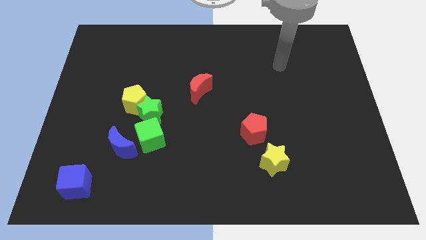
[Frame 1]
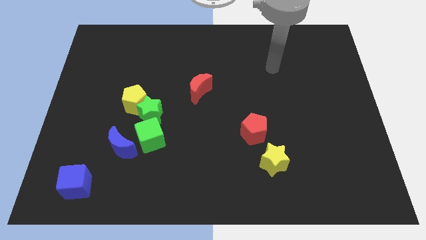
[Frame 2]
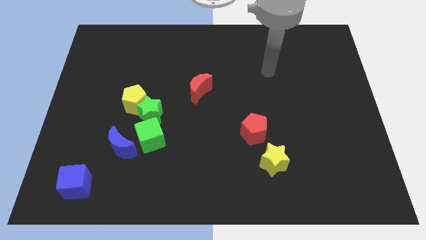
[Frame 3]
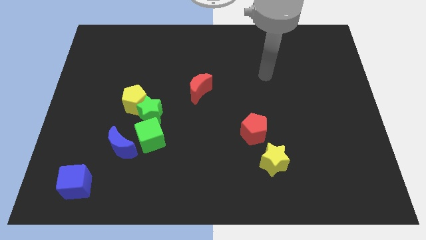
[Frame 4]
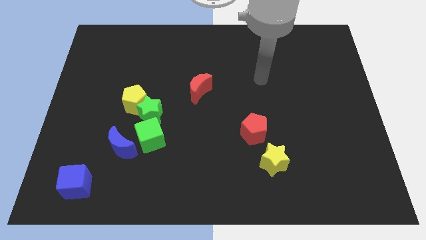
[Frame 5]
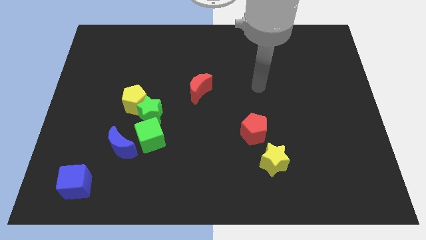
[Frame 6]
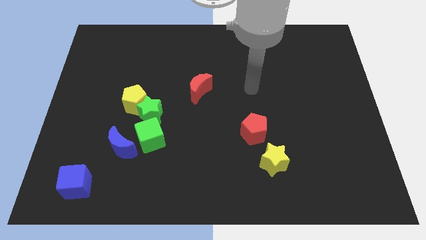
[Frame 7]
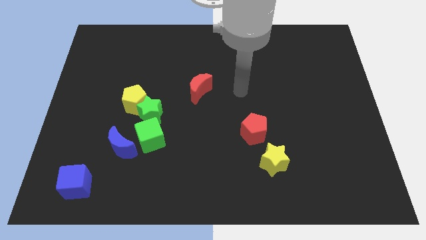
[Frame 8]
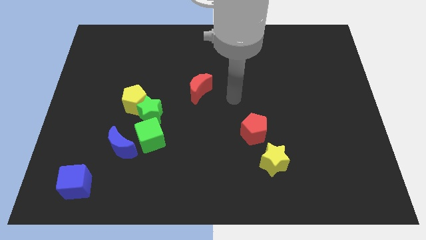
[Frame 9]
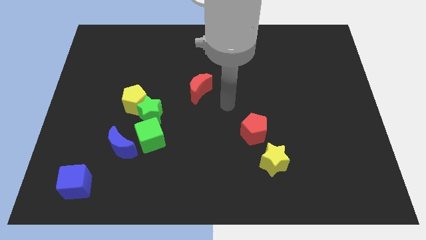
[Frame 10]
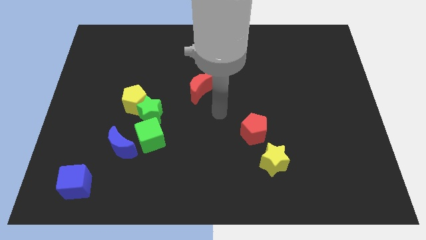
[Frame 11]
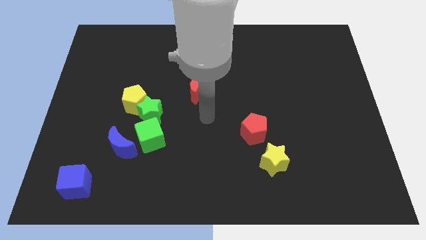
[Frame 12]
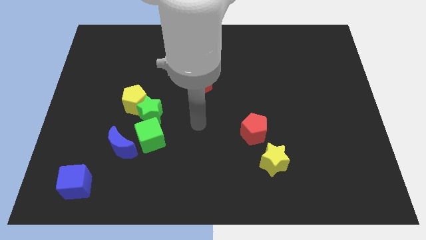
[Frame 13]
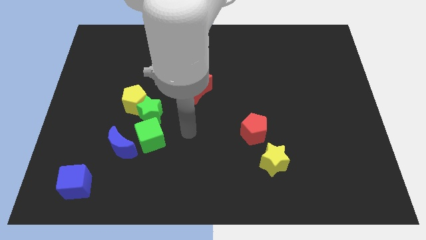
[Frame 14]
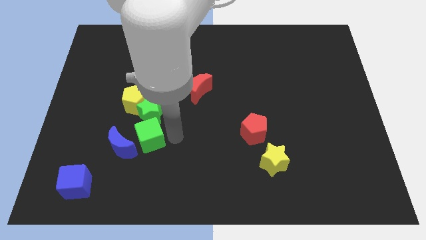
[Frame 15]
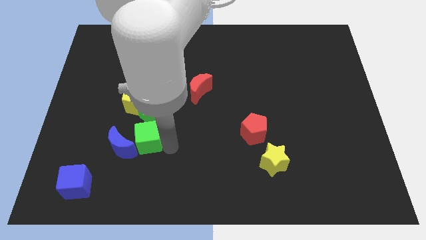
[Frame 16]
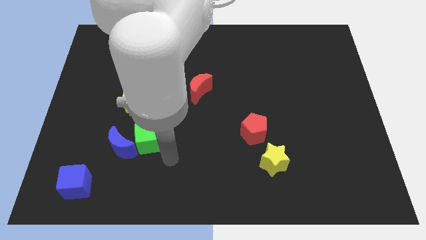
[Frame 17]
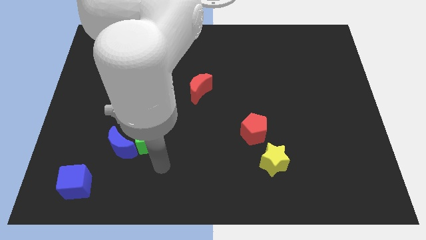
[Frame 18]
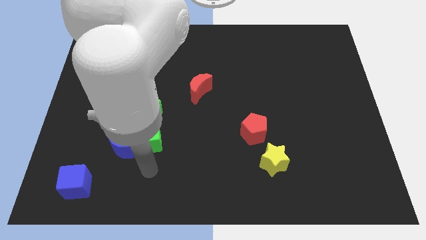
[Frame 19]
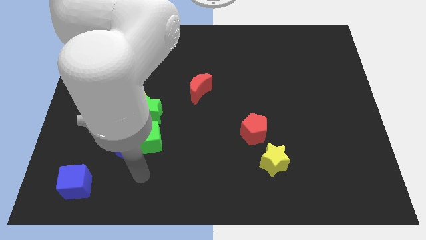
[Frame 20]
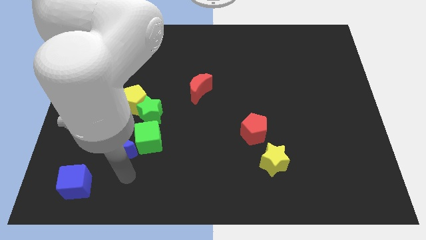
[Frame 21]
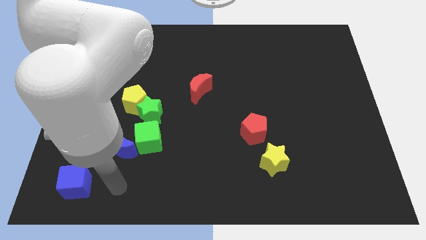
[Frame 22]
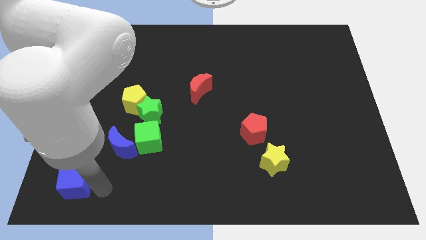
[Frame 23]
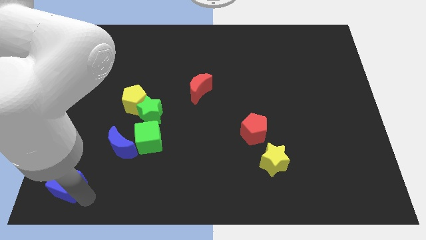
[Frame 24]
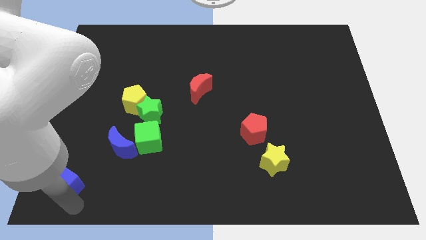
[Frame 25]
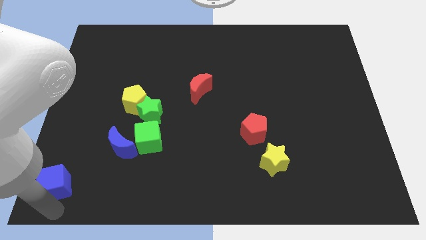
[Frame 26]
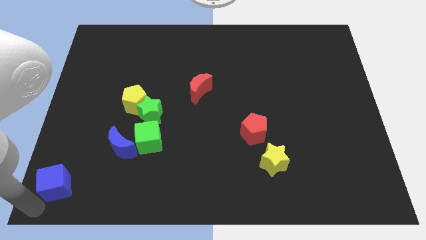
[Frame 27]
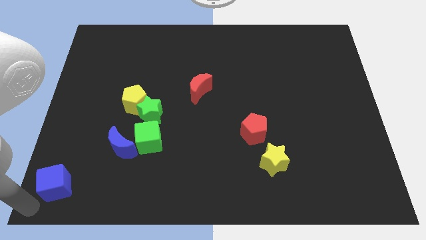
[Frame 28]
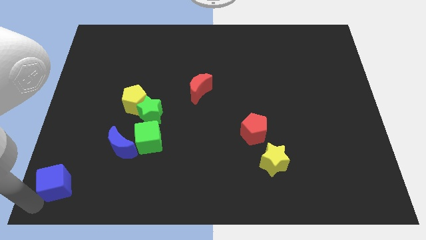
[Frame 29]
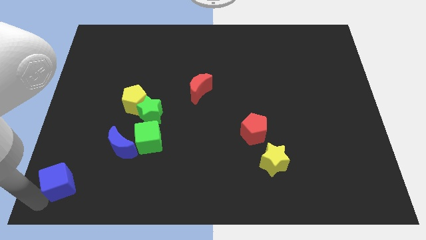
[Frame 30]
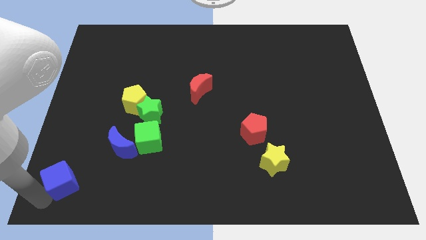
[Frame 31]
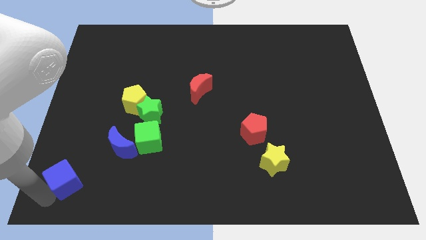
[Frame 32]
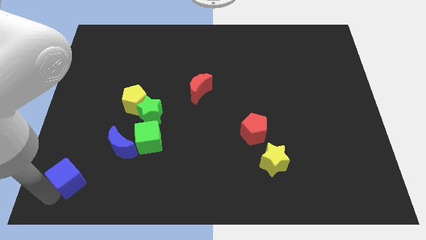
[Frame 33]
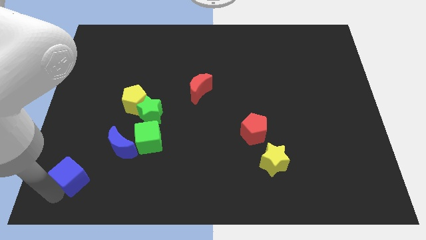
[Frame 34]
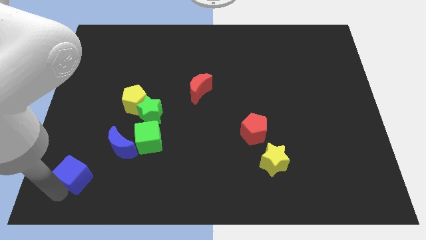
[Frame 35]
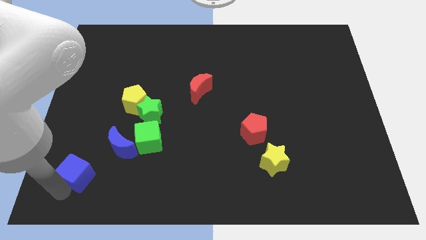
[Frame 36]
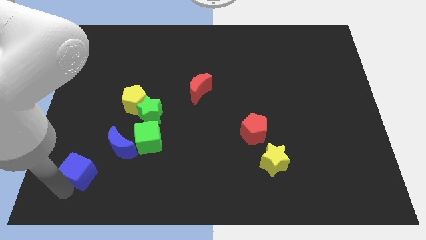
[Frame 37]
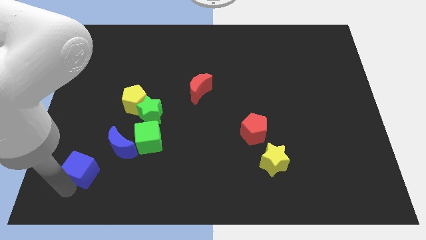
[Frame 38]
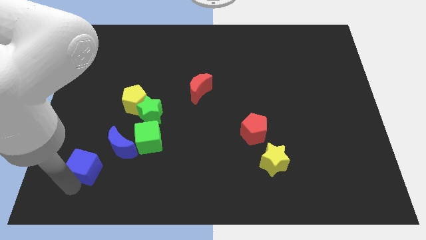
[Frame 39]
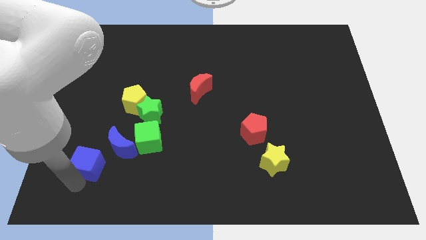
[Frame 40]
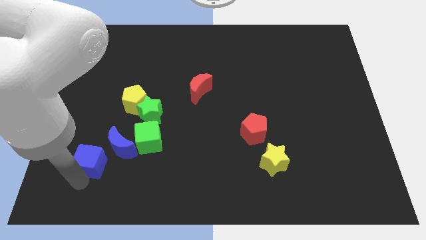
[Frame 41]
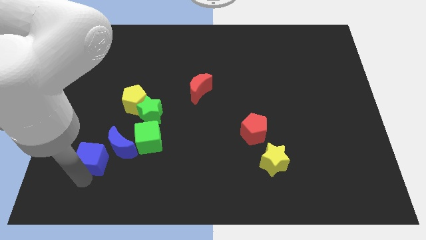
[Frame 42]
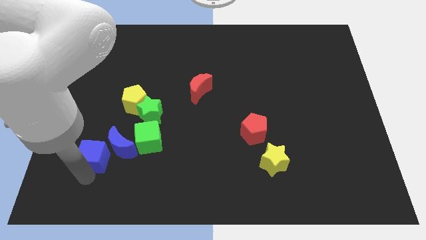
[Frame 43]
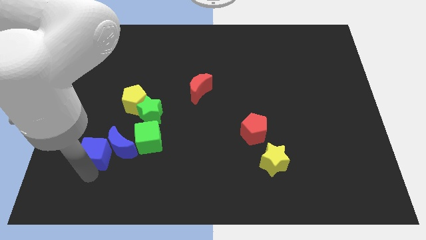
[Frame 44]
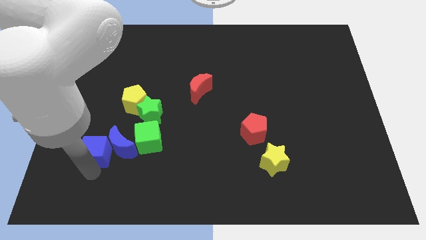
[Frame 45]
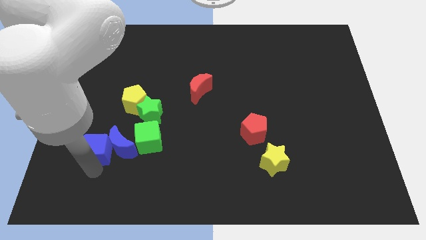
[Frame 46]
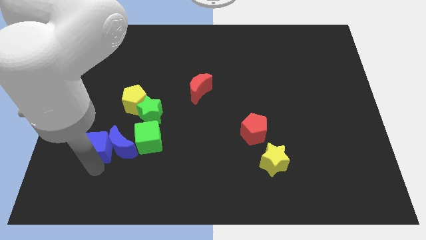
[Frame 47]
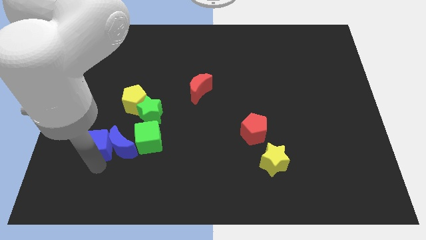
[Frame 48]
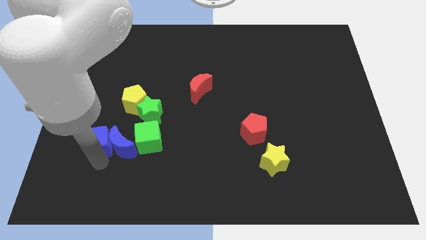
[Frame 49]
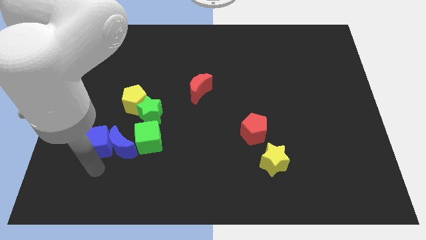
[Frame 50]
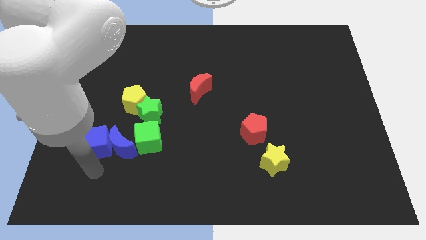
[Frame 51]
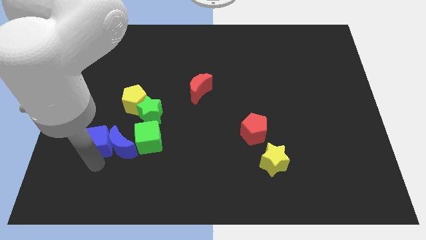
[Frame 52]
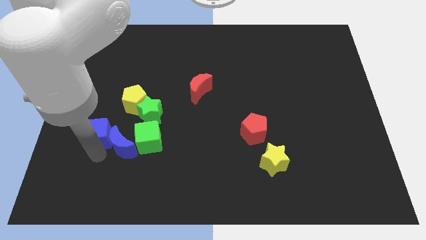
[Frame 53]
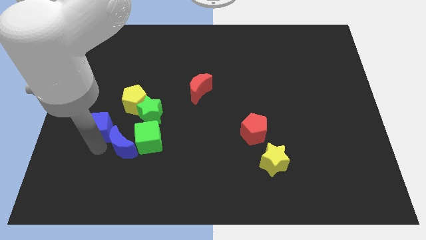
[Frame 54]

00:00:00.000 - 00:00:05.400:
put the blue cube just left of the green star

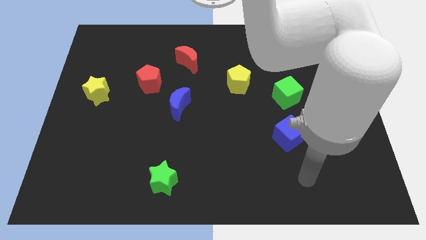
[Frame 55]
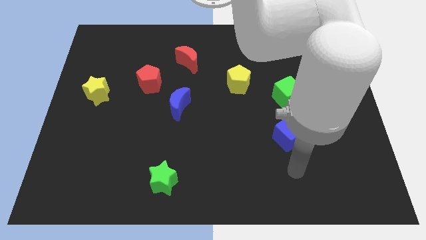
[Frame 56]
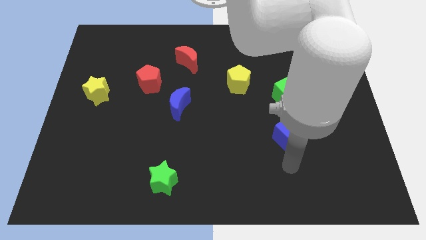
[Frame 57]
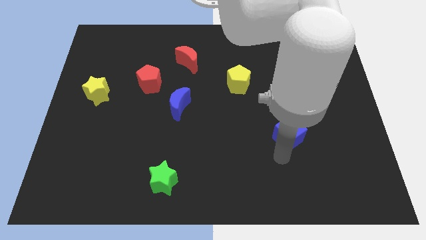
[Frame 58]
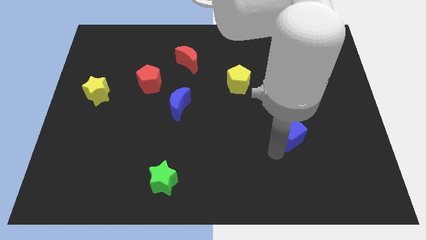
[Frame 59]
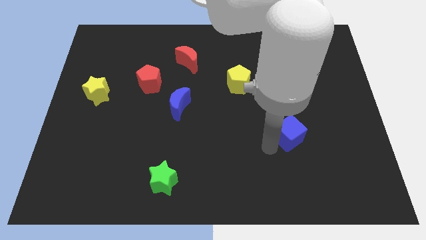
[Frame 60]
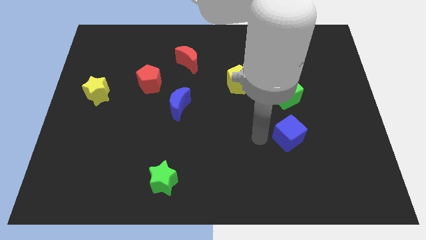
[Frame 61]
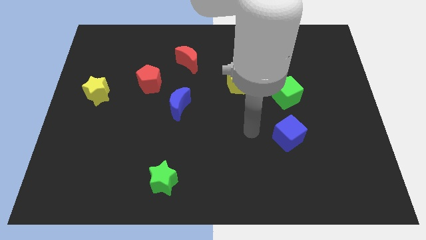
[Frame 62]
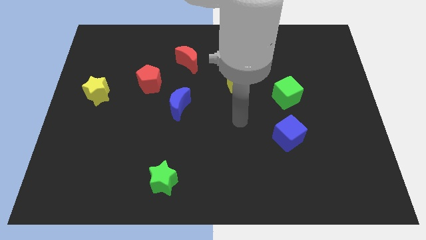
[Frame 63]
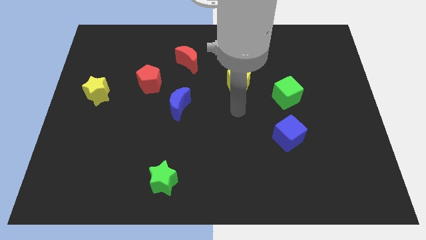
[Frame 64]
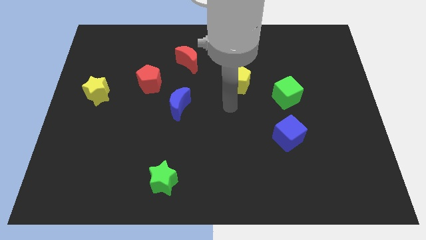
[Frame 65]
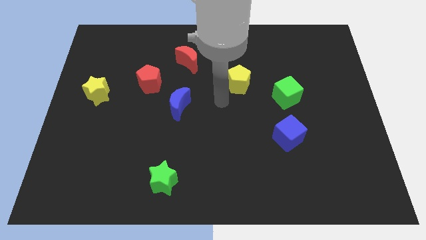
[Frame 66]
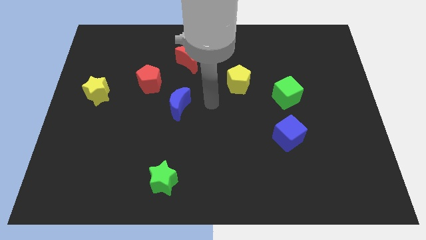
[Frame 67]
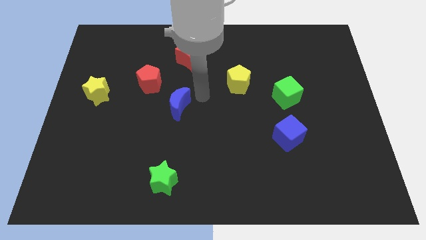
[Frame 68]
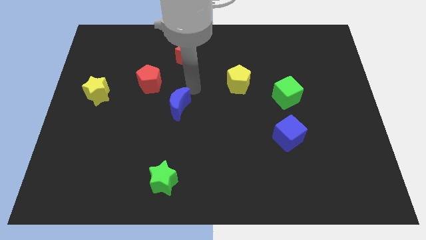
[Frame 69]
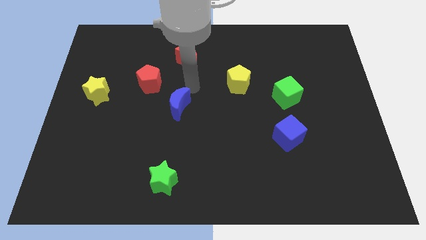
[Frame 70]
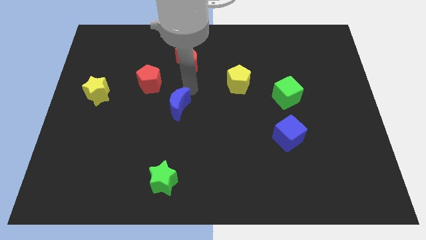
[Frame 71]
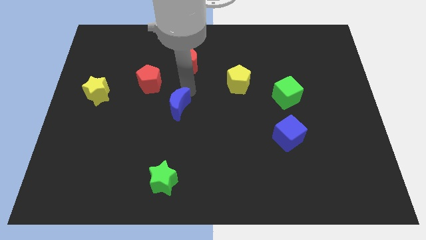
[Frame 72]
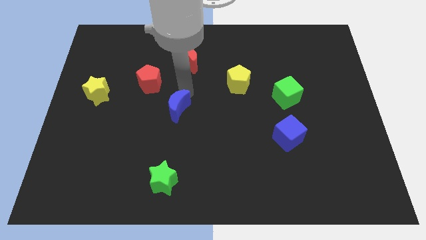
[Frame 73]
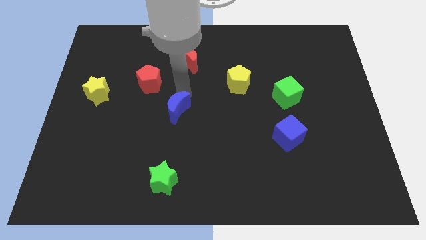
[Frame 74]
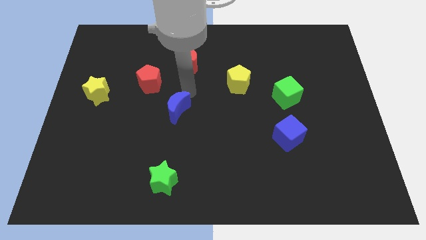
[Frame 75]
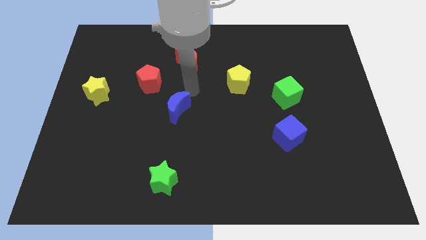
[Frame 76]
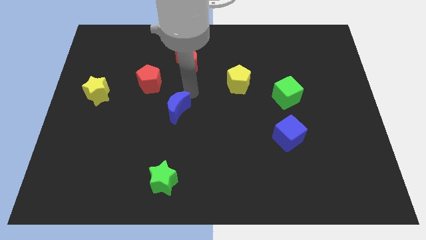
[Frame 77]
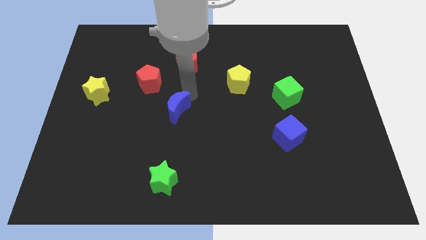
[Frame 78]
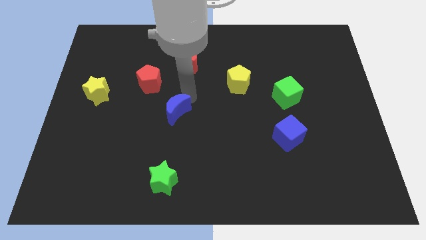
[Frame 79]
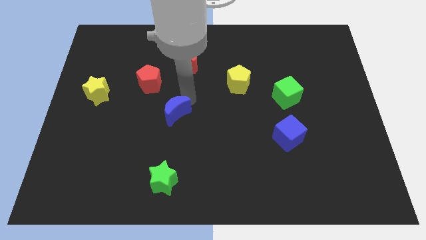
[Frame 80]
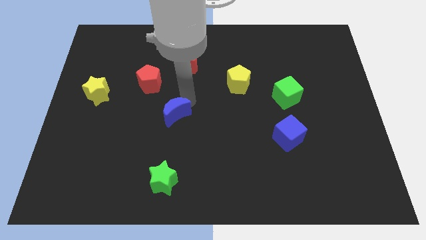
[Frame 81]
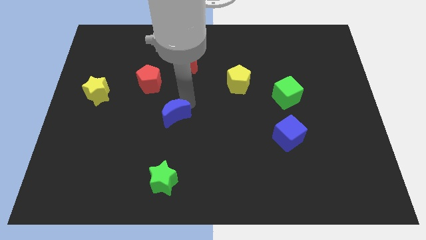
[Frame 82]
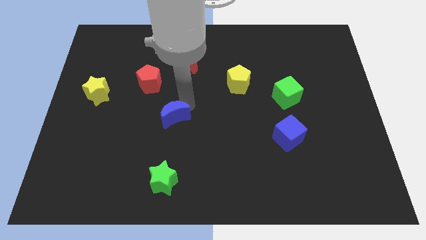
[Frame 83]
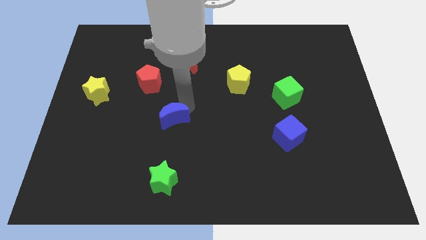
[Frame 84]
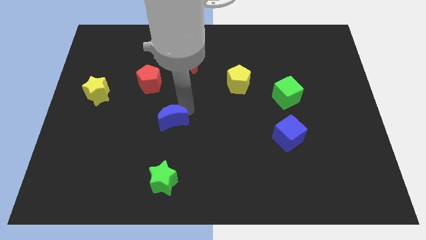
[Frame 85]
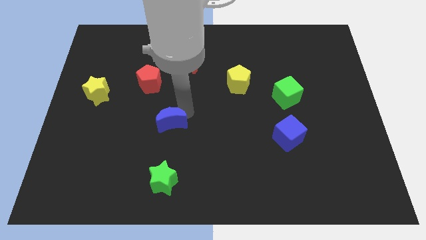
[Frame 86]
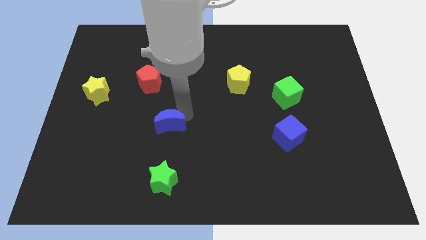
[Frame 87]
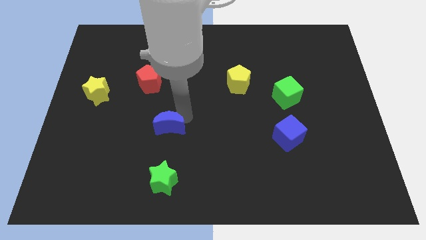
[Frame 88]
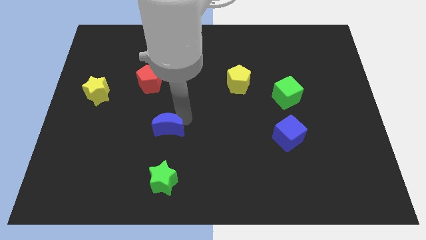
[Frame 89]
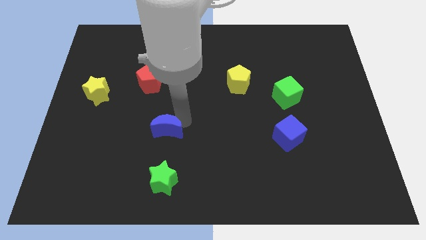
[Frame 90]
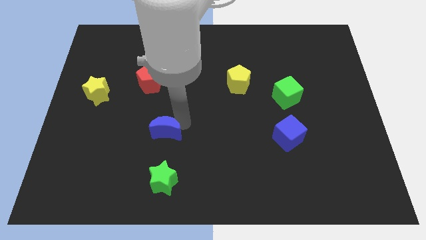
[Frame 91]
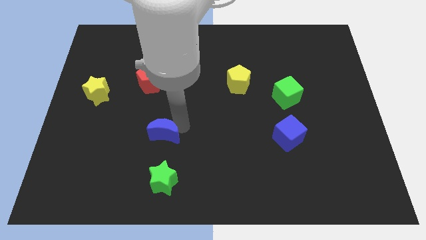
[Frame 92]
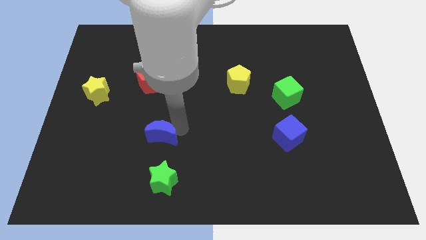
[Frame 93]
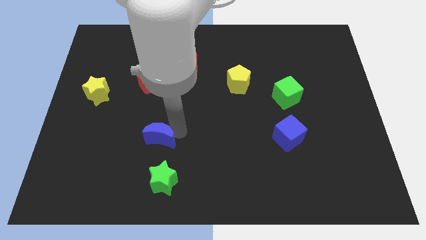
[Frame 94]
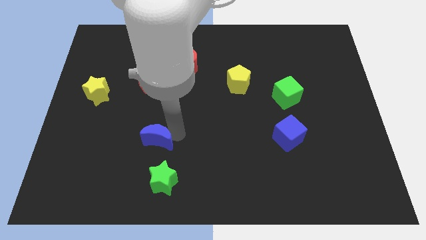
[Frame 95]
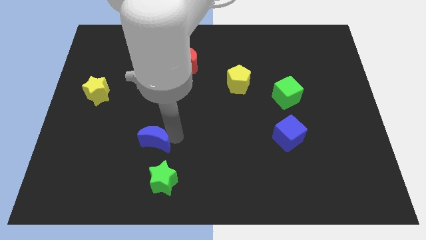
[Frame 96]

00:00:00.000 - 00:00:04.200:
put the blue moon to the top left side of the green star
